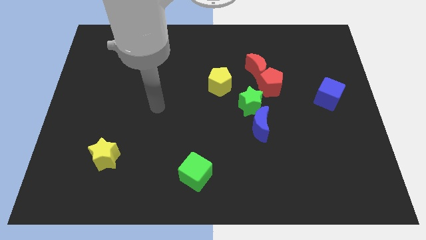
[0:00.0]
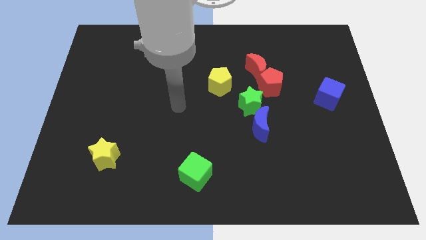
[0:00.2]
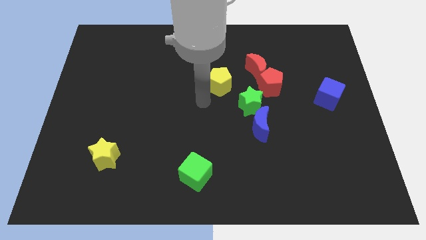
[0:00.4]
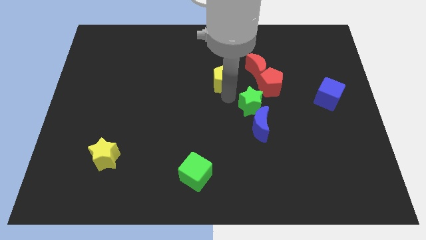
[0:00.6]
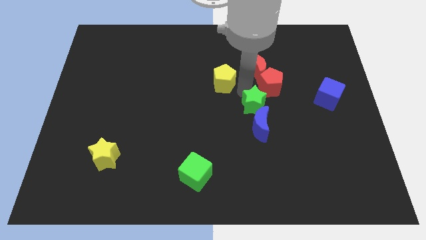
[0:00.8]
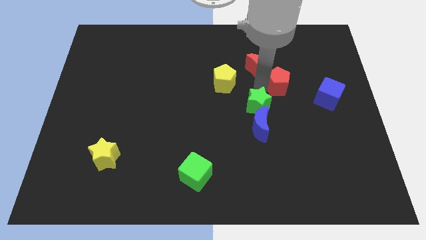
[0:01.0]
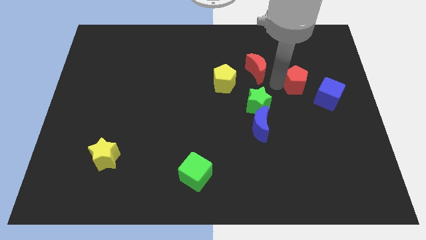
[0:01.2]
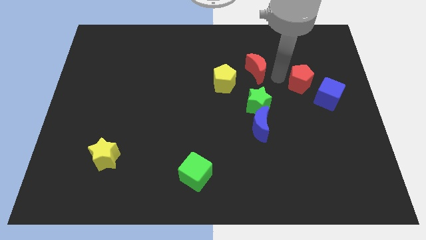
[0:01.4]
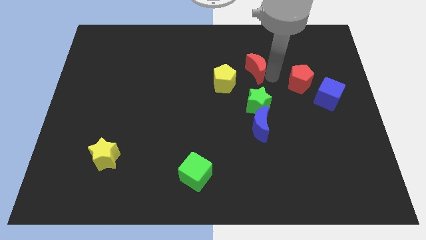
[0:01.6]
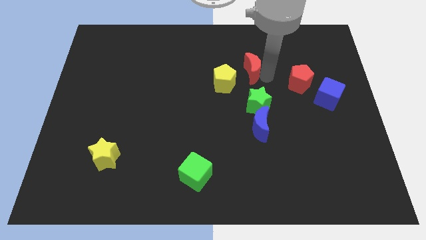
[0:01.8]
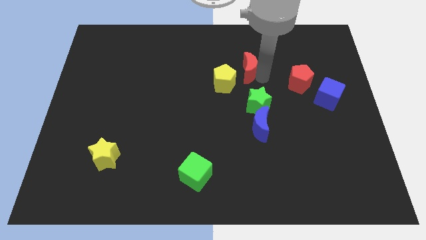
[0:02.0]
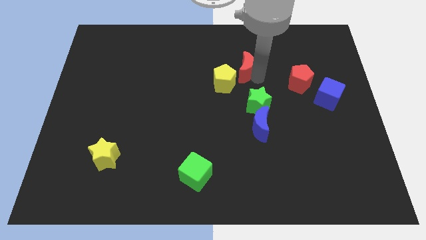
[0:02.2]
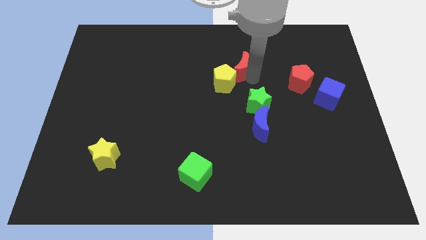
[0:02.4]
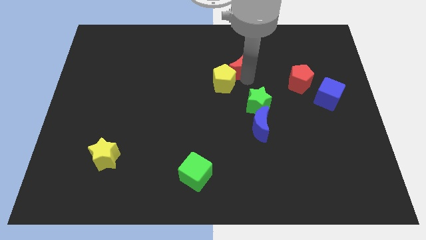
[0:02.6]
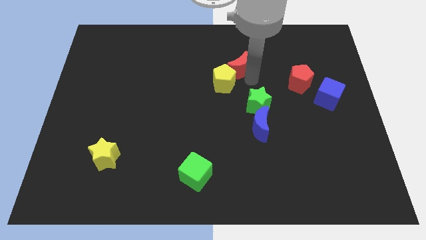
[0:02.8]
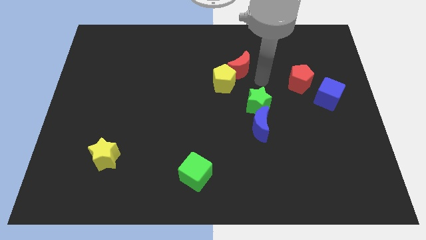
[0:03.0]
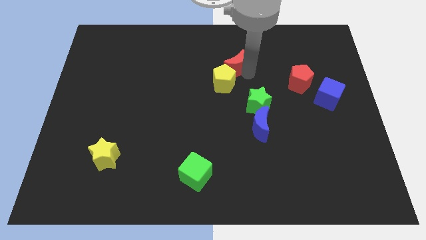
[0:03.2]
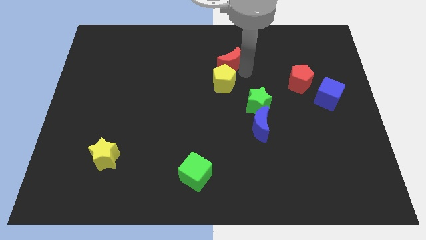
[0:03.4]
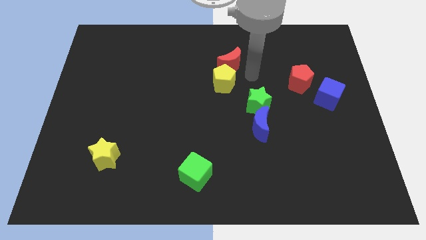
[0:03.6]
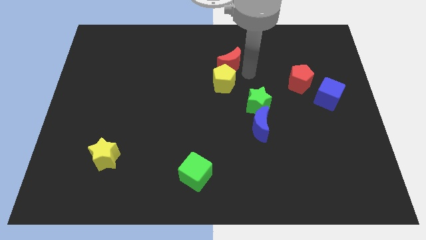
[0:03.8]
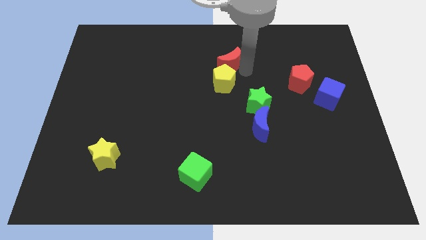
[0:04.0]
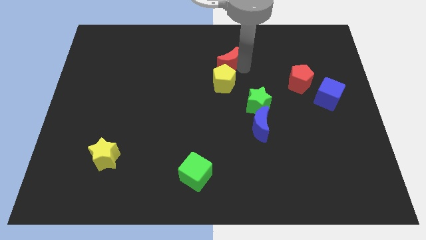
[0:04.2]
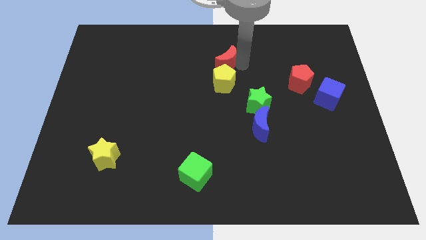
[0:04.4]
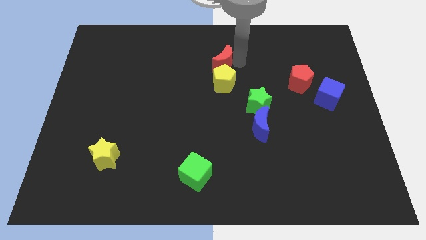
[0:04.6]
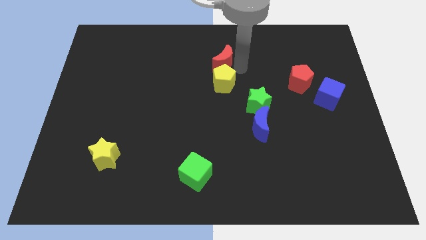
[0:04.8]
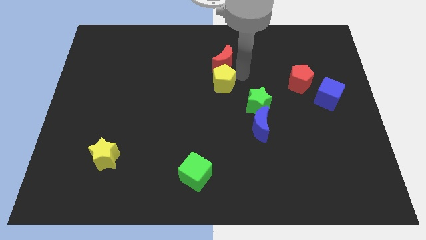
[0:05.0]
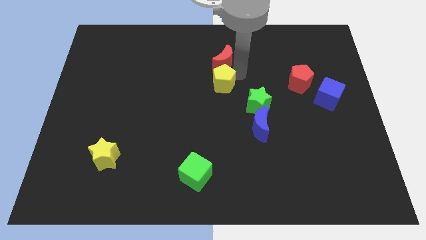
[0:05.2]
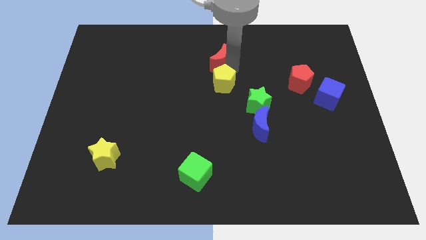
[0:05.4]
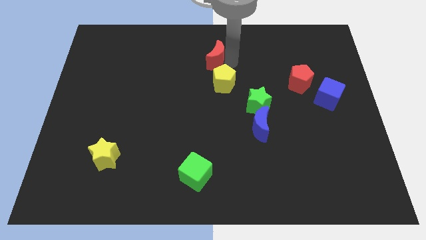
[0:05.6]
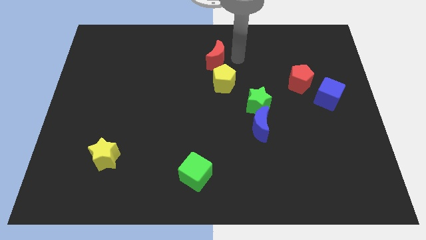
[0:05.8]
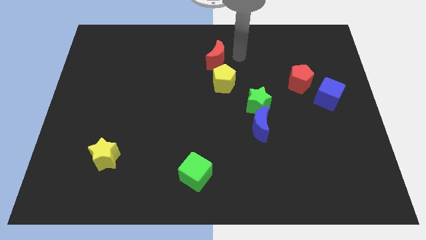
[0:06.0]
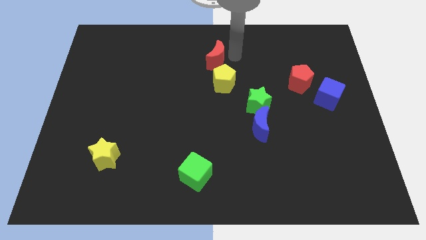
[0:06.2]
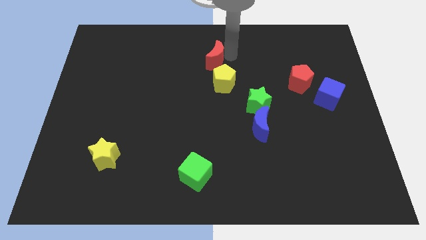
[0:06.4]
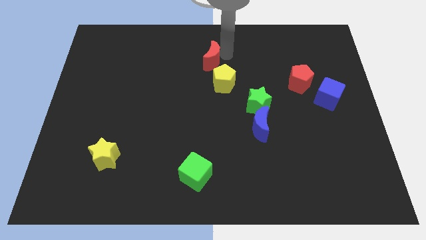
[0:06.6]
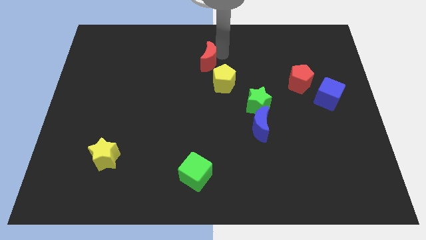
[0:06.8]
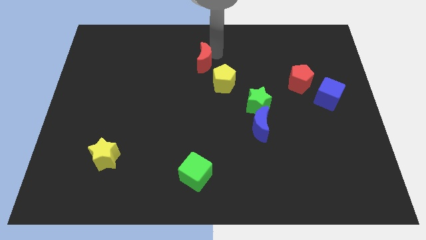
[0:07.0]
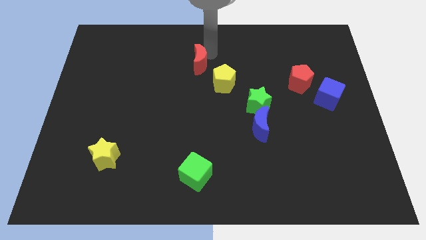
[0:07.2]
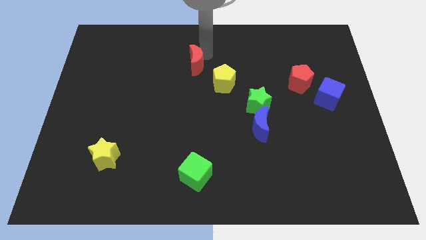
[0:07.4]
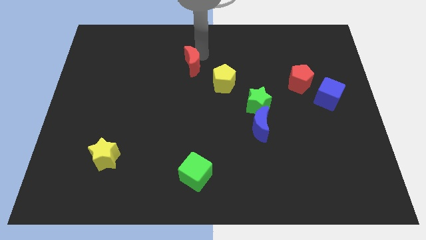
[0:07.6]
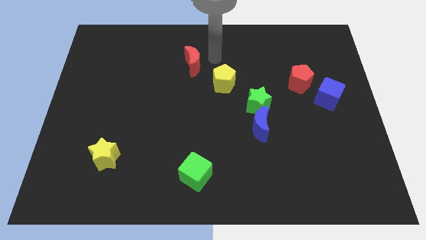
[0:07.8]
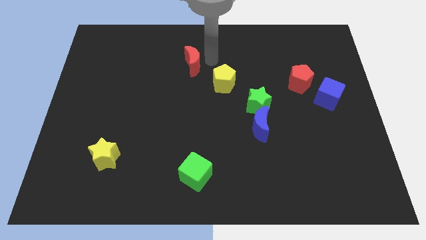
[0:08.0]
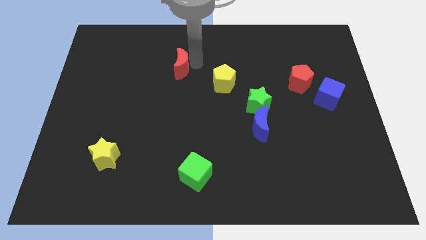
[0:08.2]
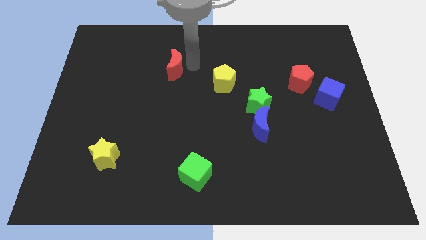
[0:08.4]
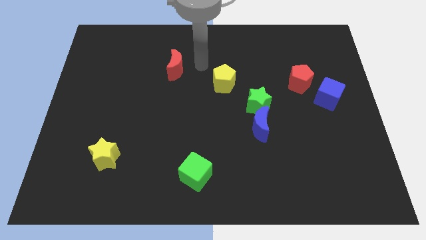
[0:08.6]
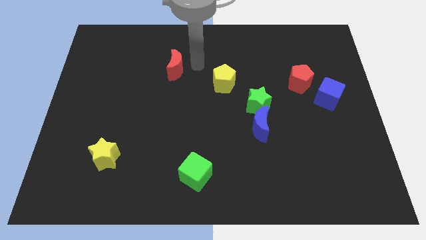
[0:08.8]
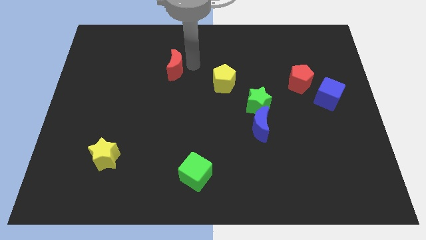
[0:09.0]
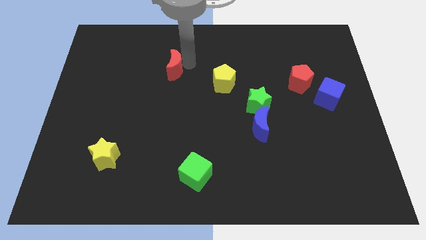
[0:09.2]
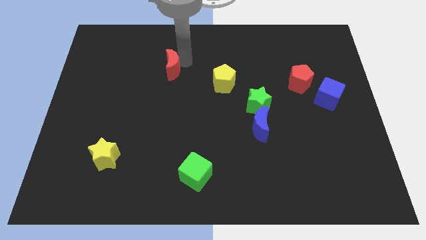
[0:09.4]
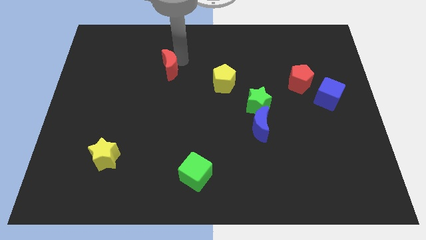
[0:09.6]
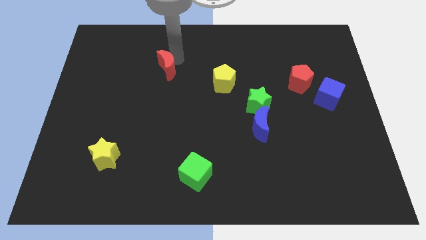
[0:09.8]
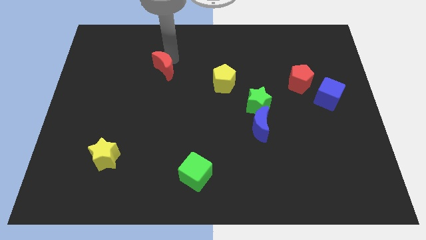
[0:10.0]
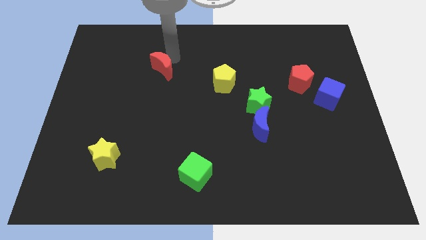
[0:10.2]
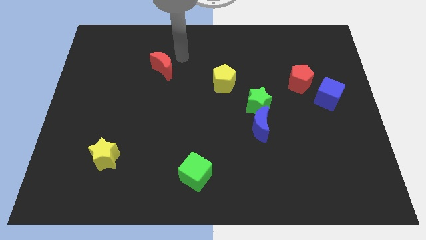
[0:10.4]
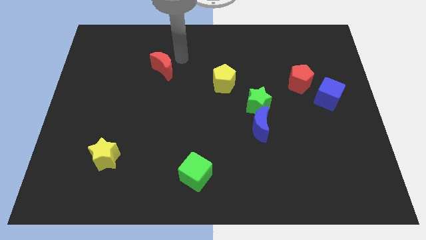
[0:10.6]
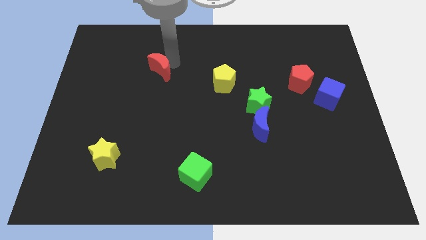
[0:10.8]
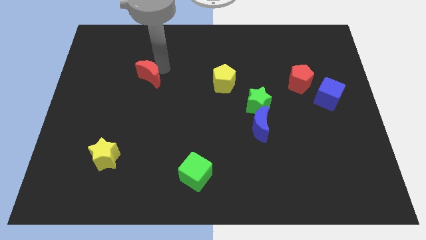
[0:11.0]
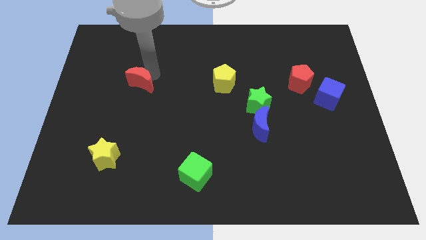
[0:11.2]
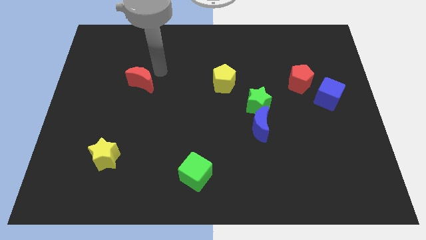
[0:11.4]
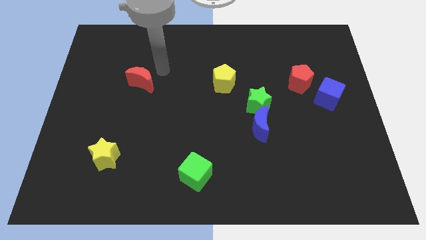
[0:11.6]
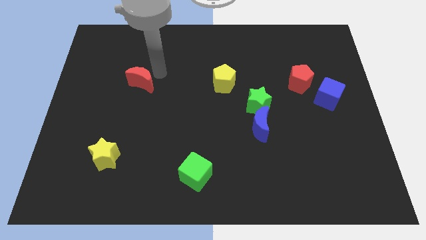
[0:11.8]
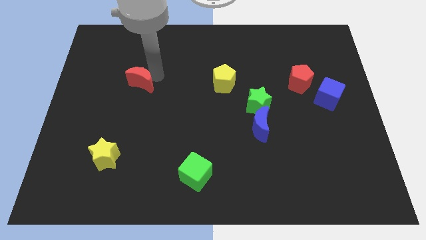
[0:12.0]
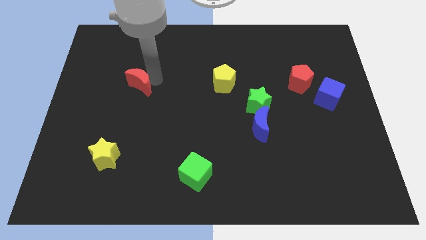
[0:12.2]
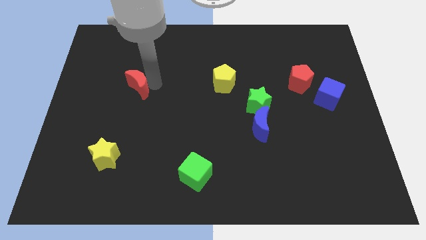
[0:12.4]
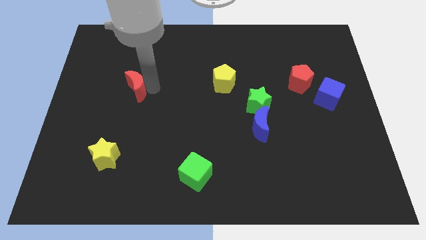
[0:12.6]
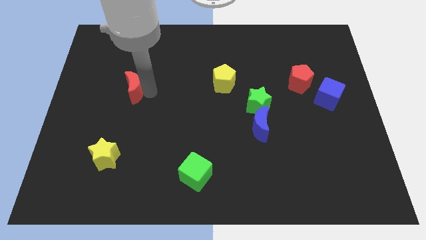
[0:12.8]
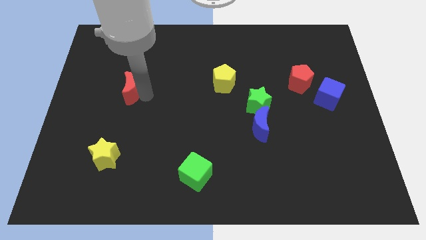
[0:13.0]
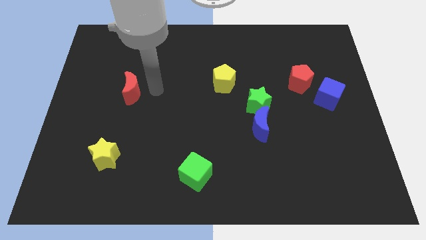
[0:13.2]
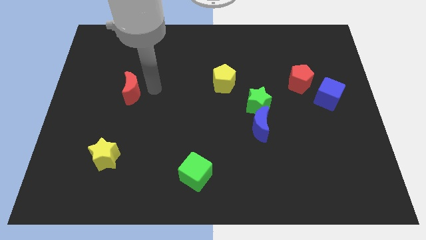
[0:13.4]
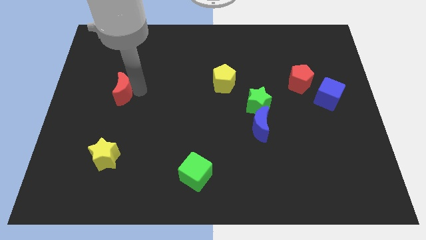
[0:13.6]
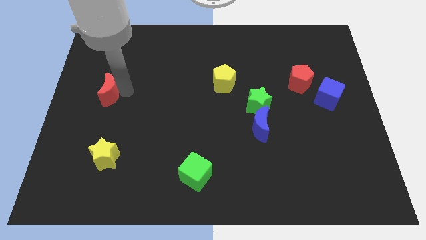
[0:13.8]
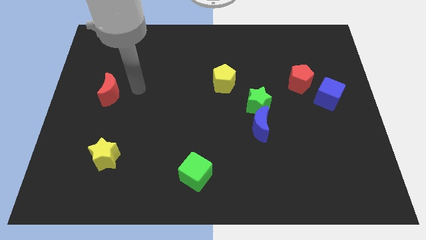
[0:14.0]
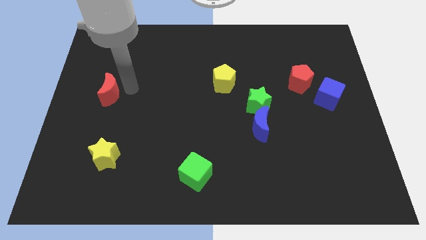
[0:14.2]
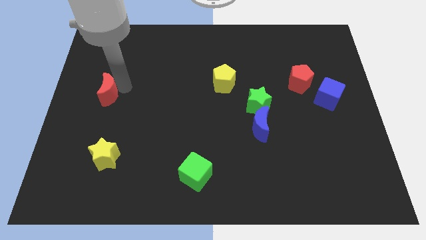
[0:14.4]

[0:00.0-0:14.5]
push the red moon to the left side of the board

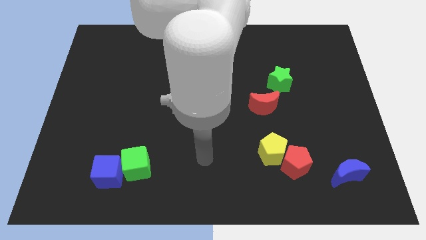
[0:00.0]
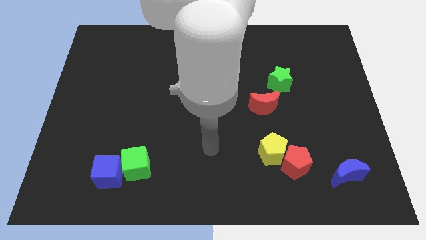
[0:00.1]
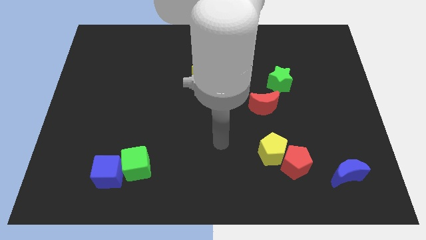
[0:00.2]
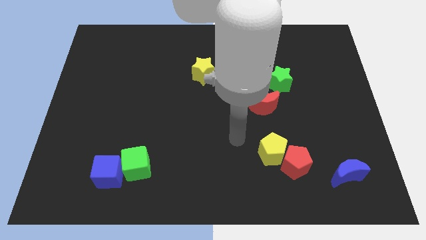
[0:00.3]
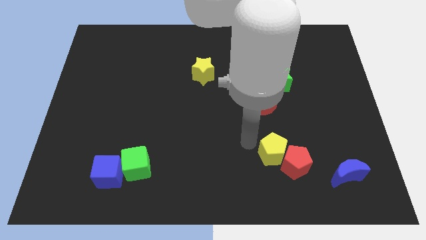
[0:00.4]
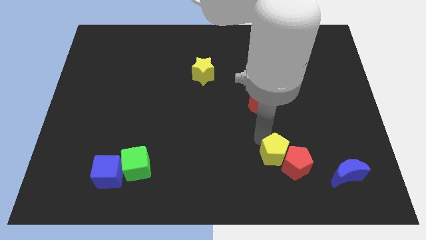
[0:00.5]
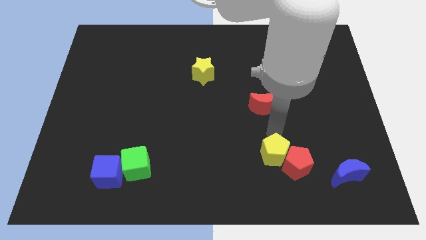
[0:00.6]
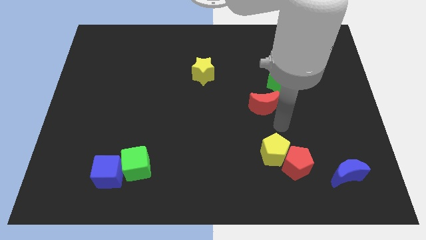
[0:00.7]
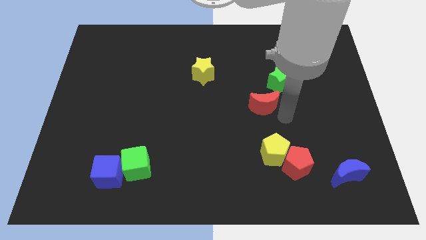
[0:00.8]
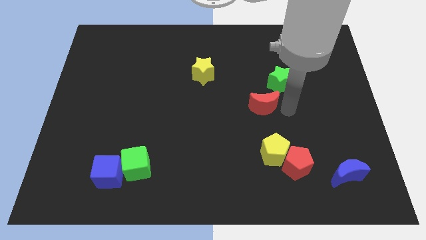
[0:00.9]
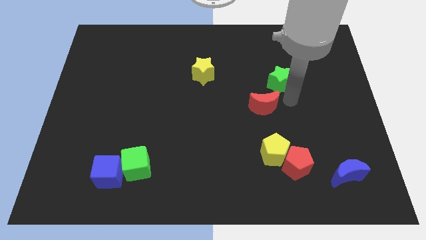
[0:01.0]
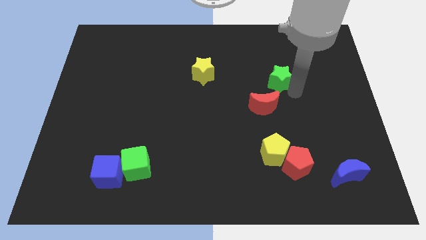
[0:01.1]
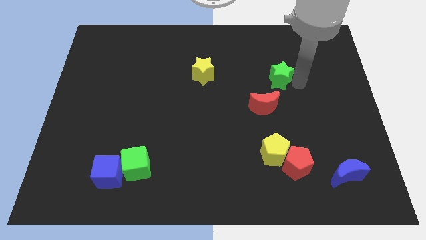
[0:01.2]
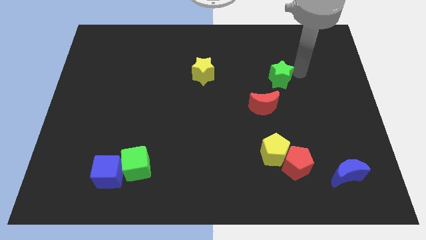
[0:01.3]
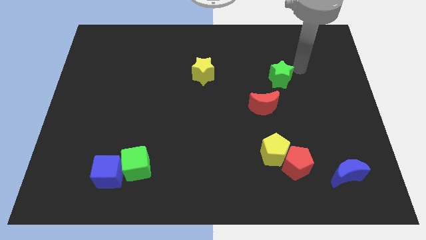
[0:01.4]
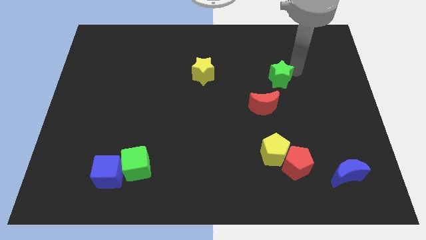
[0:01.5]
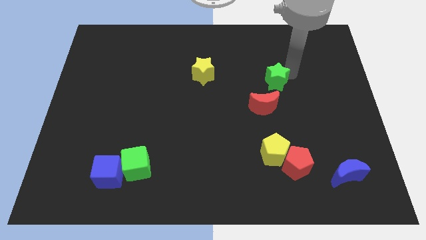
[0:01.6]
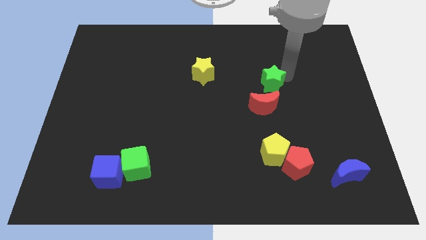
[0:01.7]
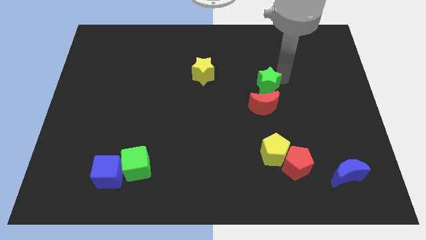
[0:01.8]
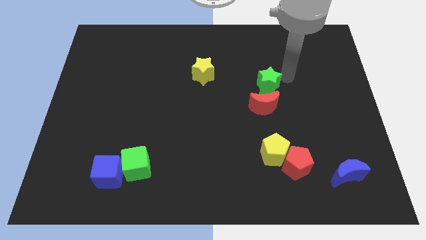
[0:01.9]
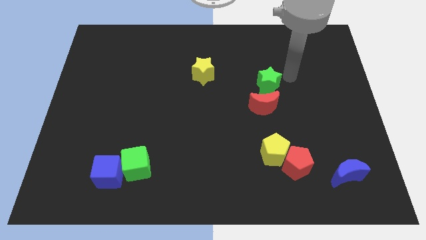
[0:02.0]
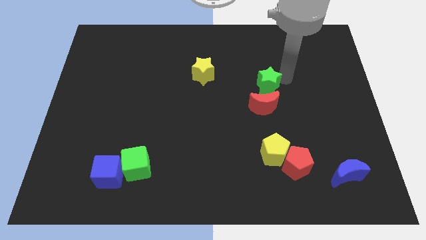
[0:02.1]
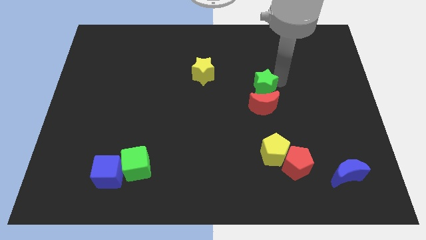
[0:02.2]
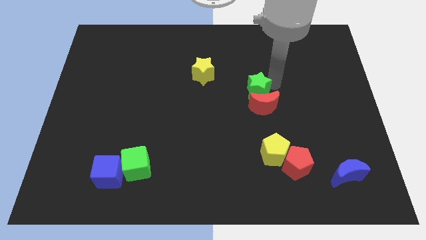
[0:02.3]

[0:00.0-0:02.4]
move the green star to the center of the board
